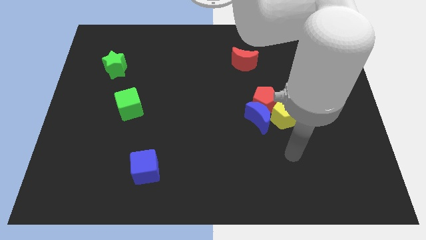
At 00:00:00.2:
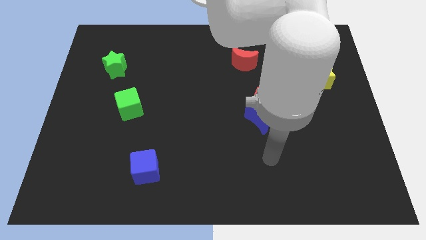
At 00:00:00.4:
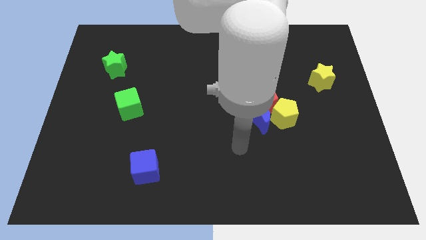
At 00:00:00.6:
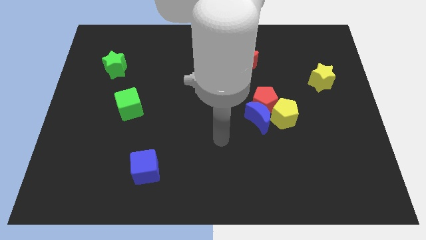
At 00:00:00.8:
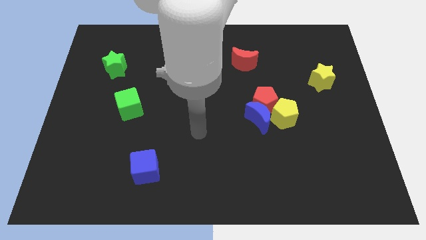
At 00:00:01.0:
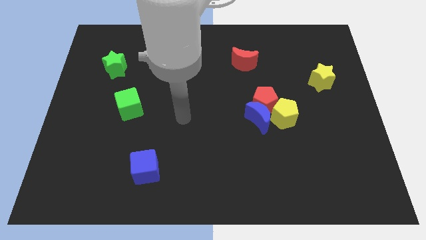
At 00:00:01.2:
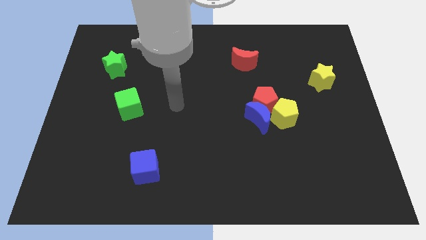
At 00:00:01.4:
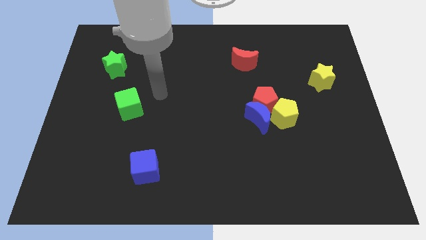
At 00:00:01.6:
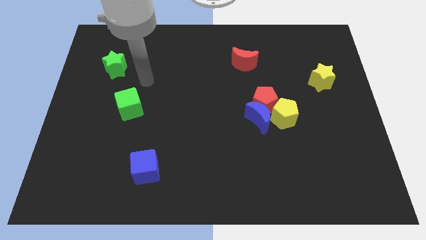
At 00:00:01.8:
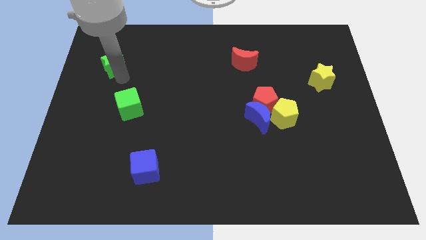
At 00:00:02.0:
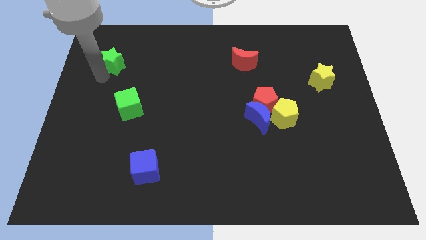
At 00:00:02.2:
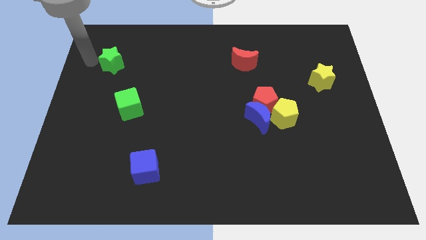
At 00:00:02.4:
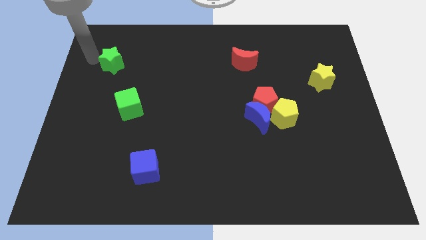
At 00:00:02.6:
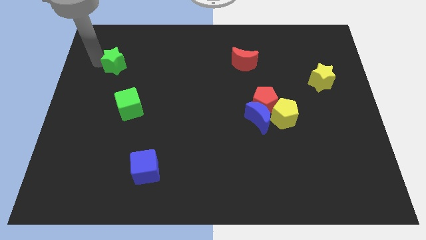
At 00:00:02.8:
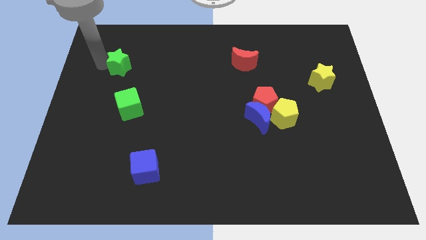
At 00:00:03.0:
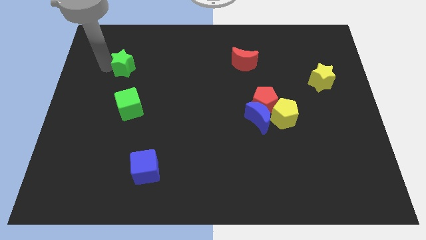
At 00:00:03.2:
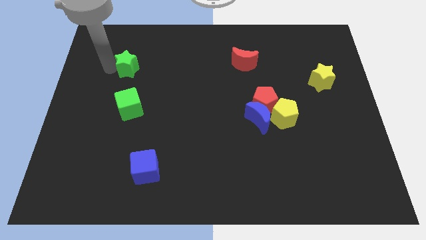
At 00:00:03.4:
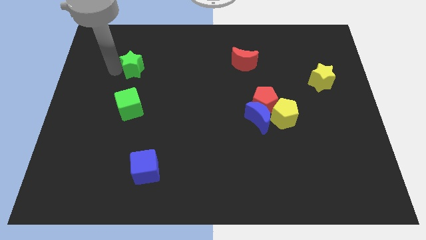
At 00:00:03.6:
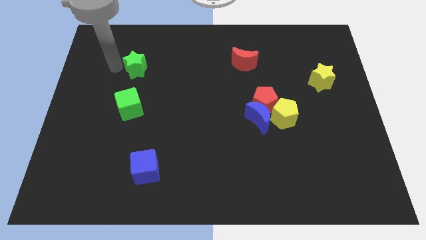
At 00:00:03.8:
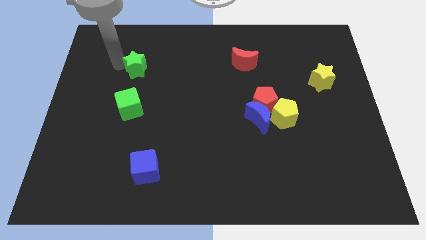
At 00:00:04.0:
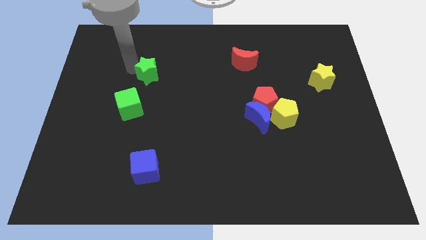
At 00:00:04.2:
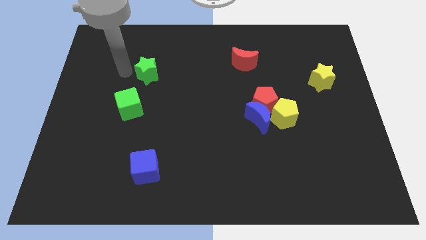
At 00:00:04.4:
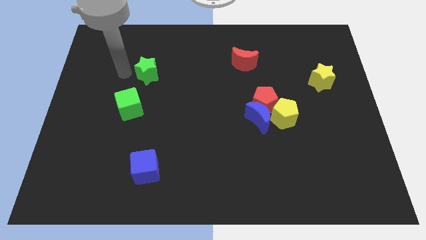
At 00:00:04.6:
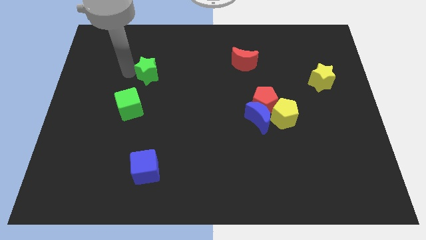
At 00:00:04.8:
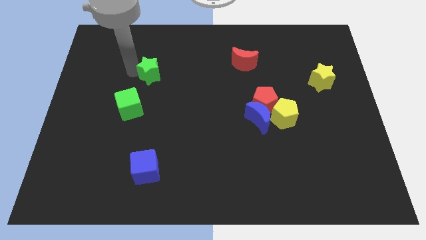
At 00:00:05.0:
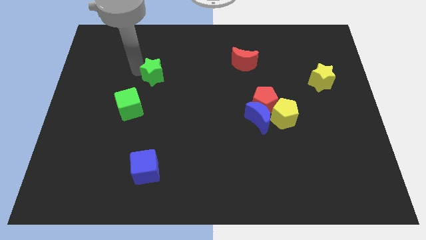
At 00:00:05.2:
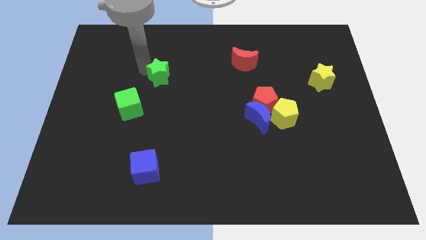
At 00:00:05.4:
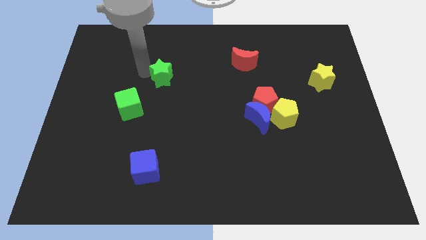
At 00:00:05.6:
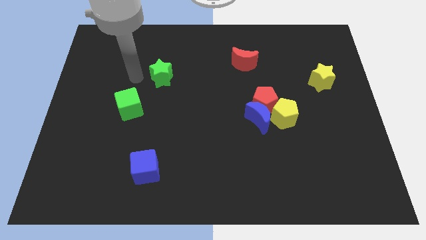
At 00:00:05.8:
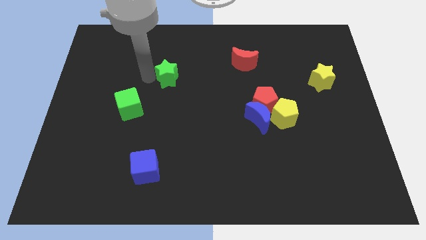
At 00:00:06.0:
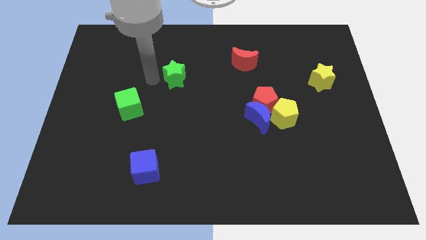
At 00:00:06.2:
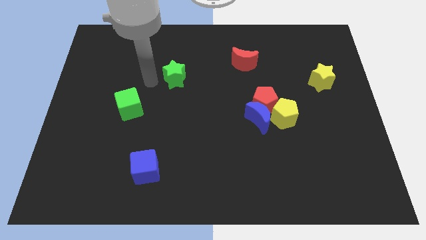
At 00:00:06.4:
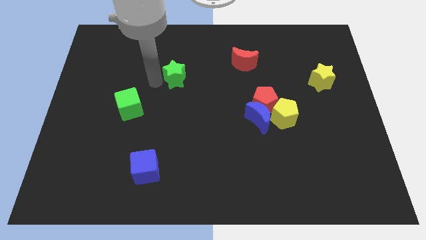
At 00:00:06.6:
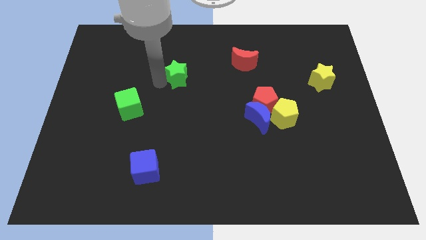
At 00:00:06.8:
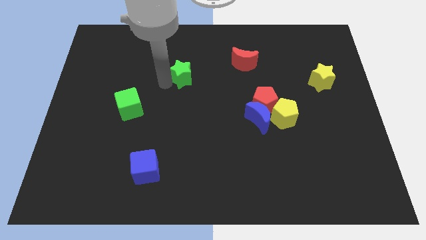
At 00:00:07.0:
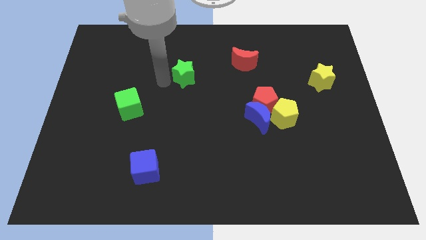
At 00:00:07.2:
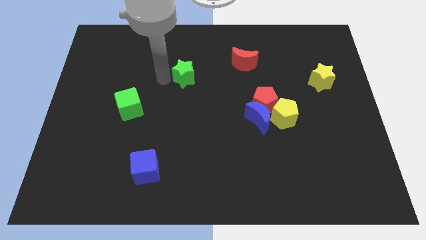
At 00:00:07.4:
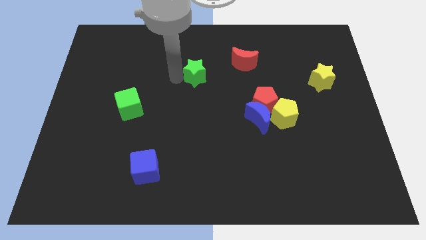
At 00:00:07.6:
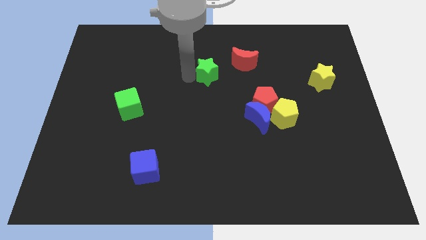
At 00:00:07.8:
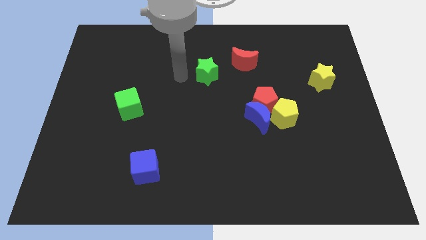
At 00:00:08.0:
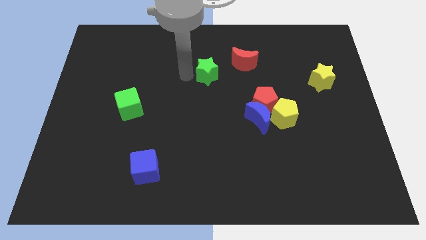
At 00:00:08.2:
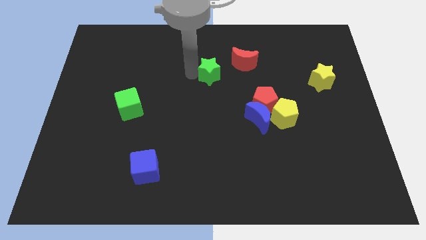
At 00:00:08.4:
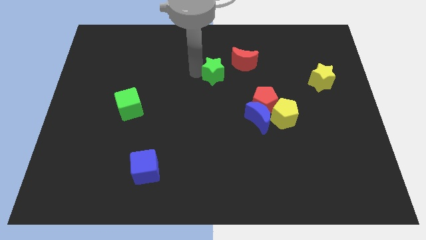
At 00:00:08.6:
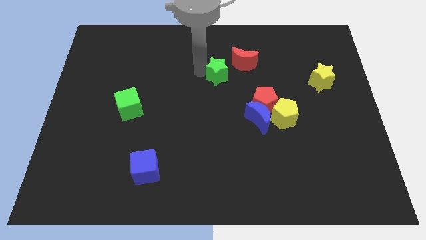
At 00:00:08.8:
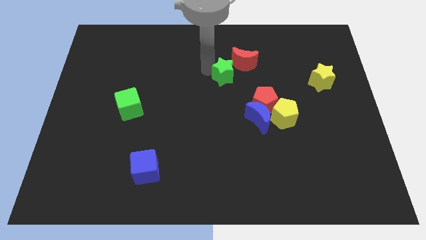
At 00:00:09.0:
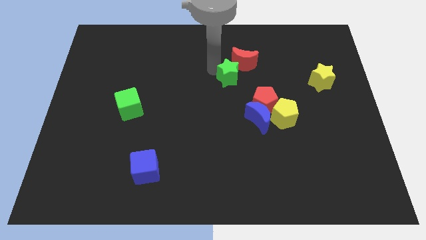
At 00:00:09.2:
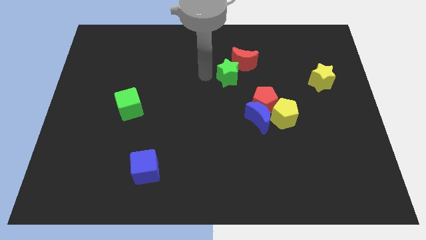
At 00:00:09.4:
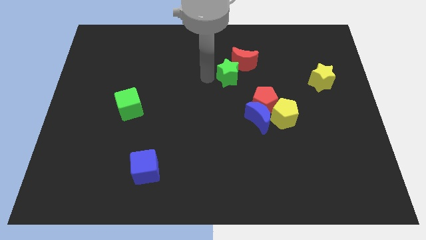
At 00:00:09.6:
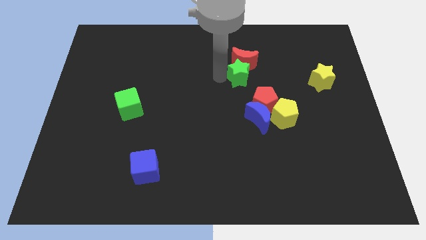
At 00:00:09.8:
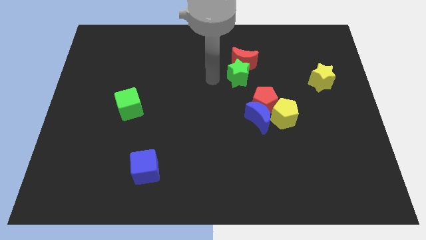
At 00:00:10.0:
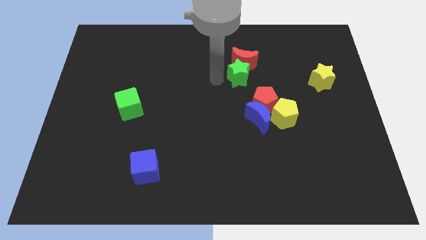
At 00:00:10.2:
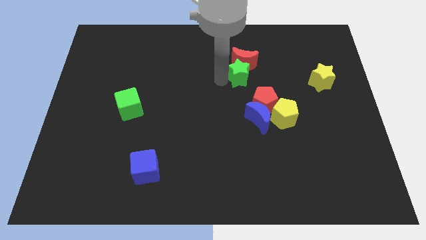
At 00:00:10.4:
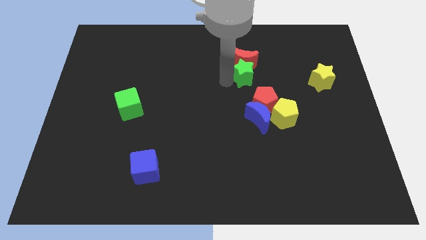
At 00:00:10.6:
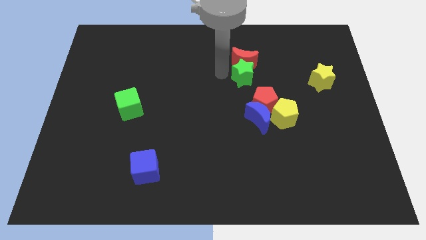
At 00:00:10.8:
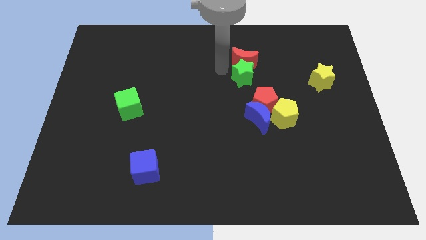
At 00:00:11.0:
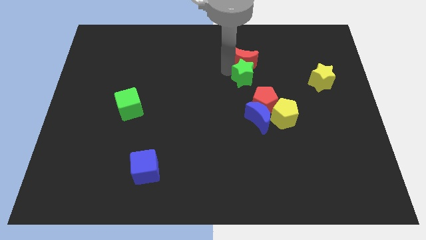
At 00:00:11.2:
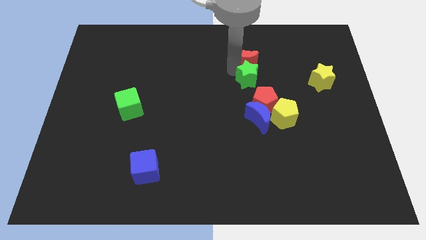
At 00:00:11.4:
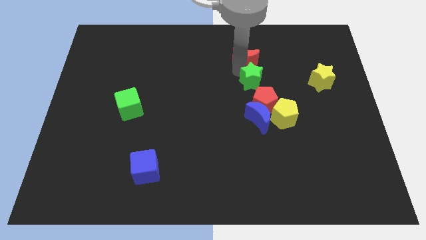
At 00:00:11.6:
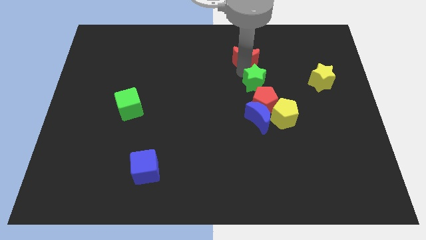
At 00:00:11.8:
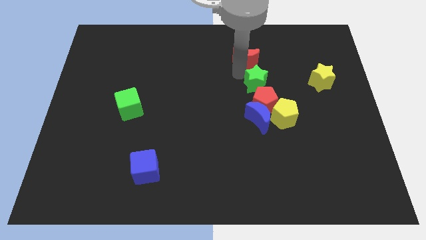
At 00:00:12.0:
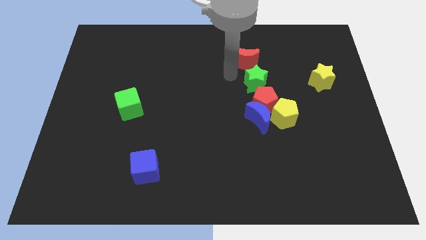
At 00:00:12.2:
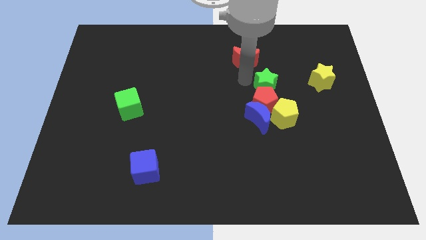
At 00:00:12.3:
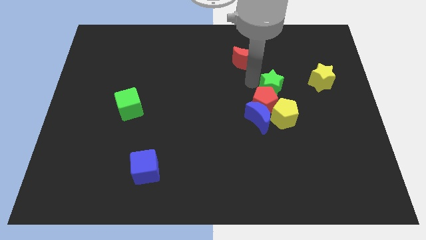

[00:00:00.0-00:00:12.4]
put the green star to the top right side of the blue moon
